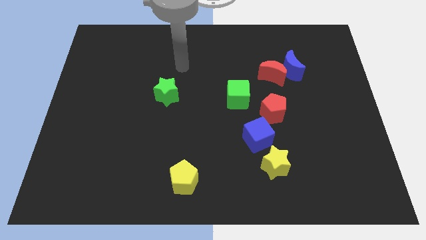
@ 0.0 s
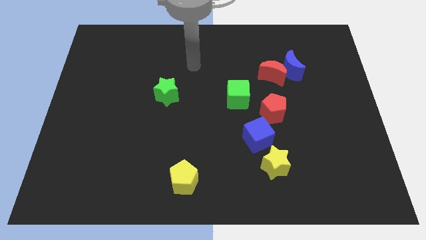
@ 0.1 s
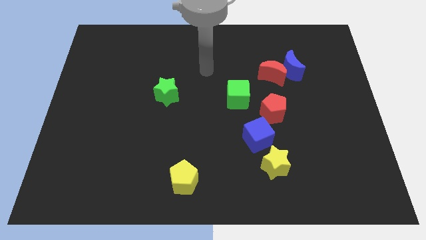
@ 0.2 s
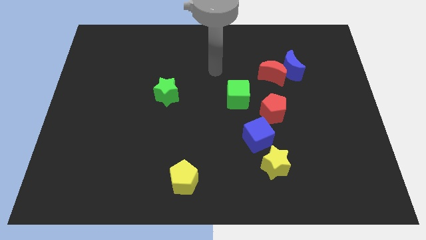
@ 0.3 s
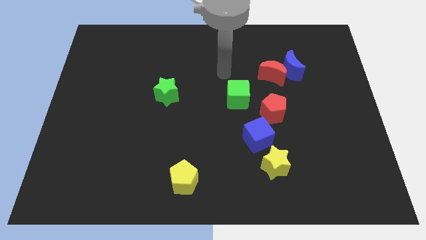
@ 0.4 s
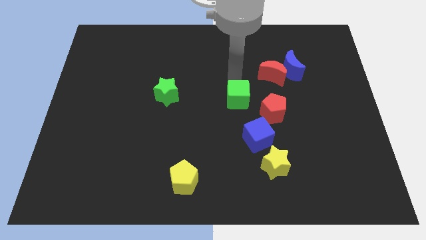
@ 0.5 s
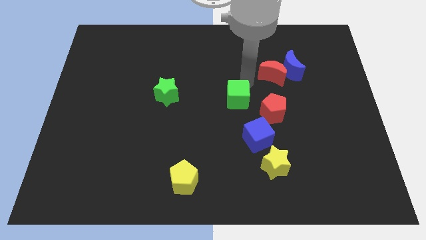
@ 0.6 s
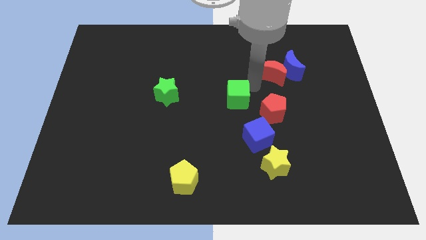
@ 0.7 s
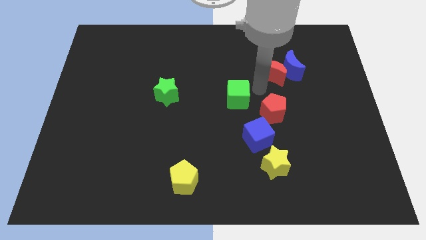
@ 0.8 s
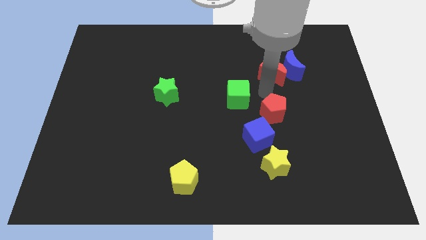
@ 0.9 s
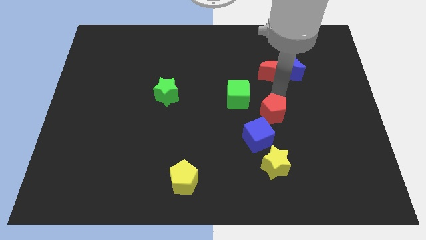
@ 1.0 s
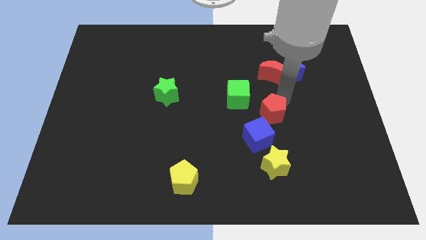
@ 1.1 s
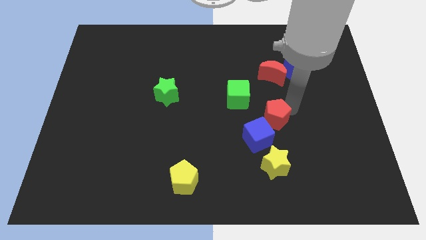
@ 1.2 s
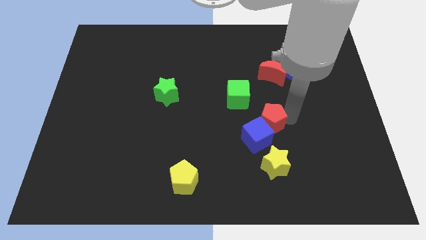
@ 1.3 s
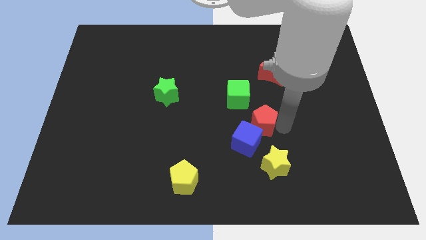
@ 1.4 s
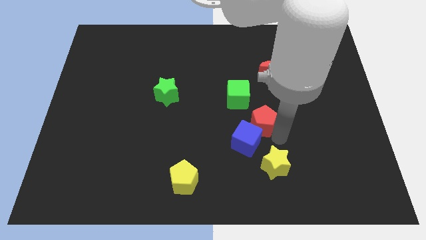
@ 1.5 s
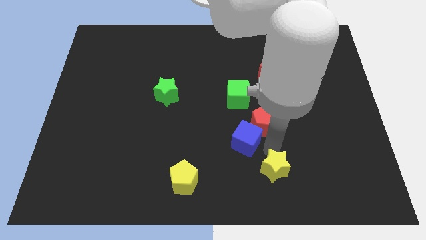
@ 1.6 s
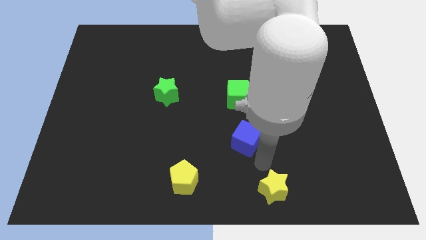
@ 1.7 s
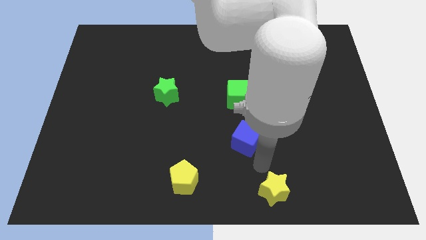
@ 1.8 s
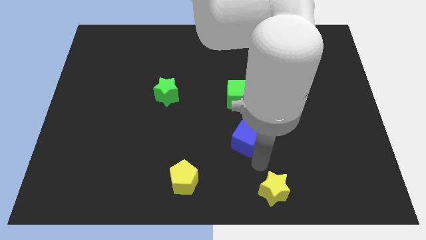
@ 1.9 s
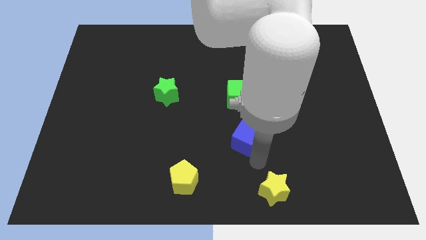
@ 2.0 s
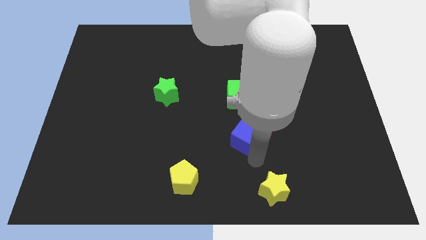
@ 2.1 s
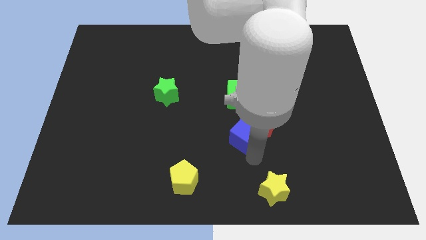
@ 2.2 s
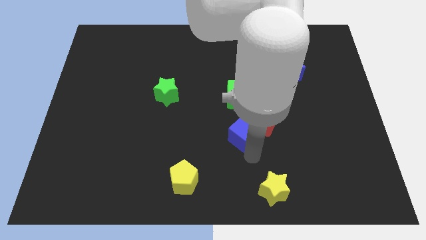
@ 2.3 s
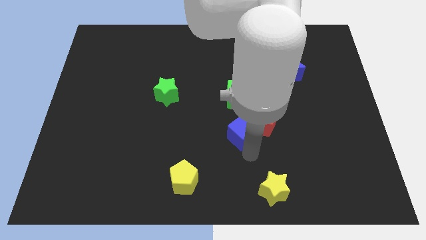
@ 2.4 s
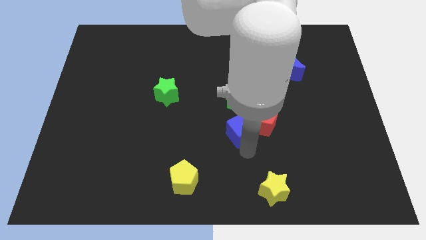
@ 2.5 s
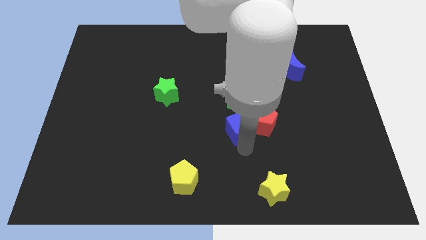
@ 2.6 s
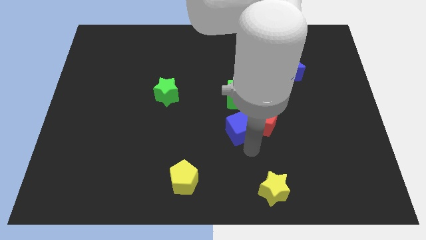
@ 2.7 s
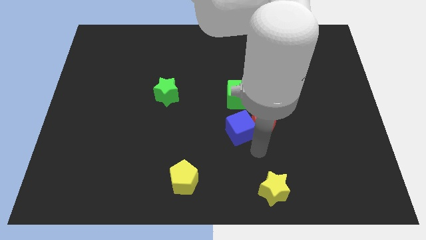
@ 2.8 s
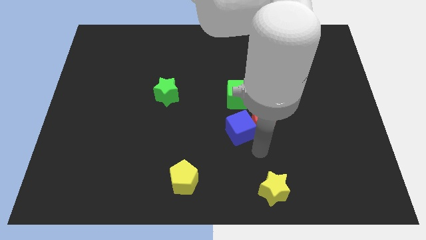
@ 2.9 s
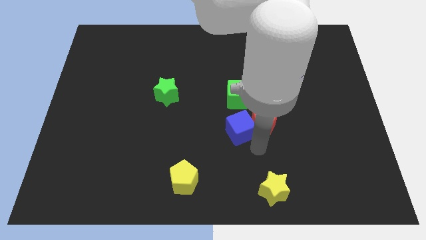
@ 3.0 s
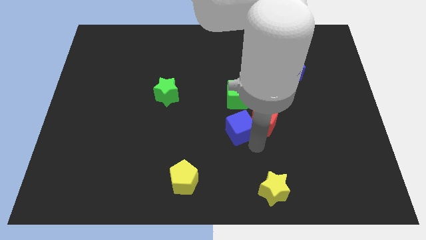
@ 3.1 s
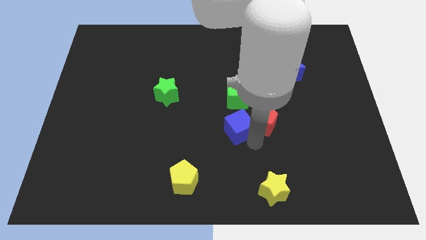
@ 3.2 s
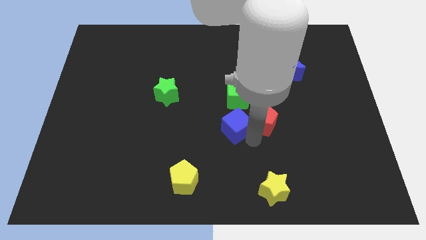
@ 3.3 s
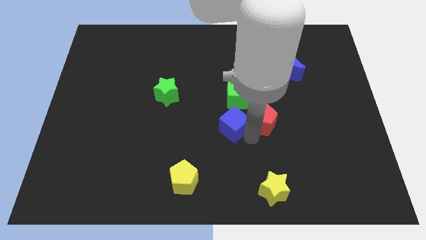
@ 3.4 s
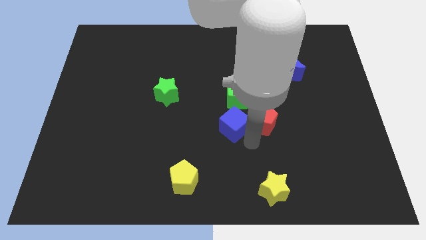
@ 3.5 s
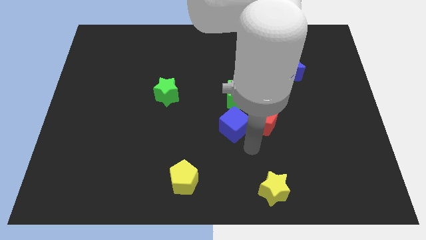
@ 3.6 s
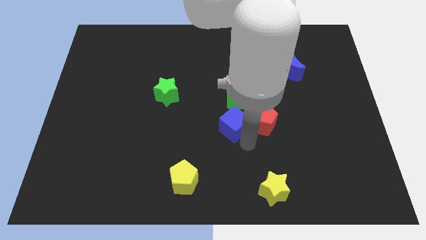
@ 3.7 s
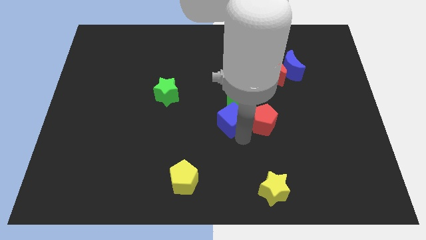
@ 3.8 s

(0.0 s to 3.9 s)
push the blue cube a bit upwards and to the left diagonally

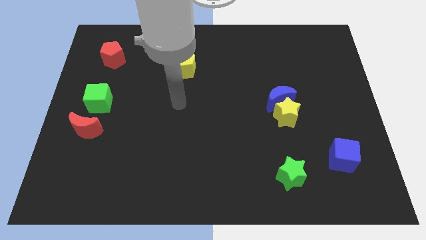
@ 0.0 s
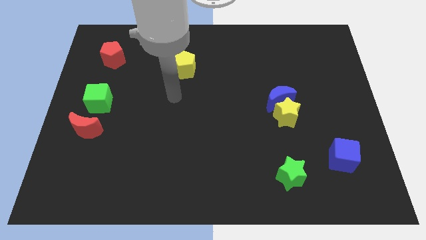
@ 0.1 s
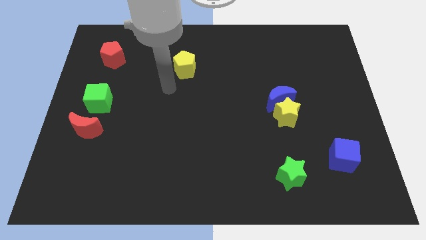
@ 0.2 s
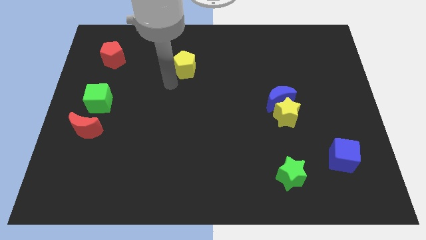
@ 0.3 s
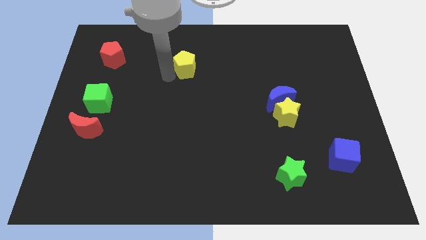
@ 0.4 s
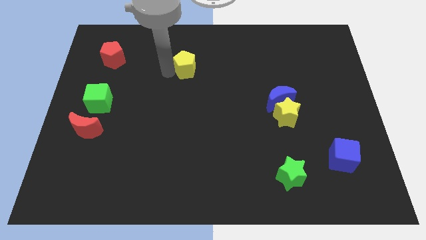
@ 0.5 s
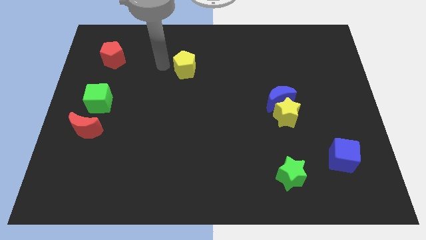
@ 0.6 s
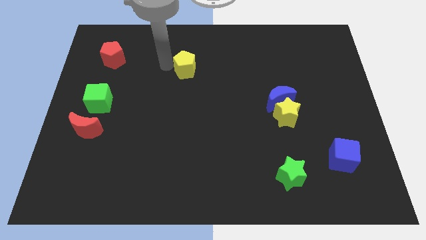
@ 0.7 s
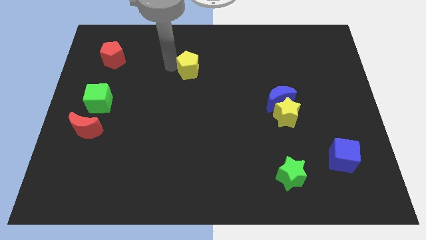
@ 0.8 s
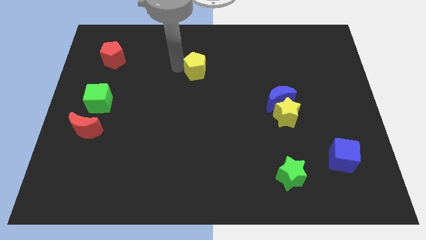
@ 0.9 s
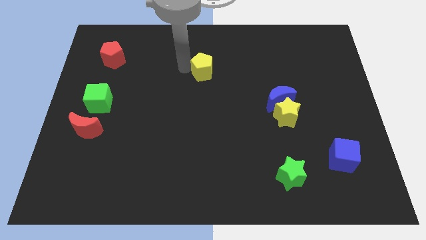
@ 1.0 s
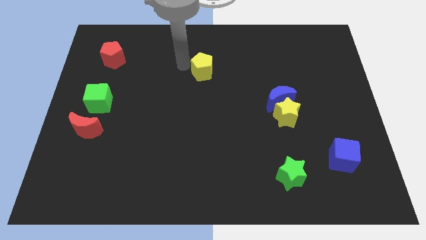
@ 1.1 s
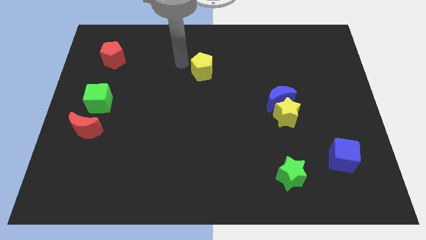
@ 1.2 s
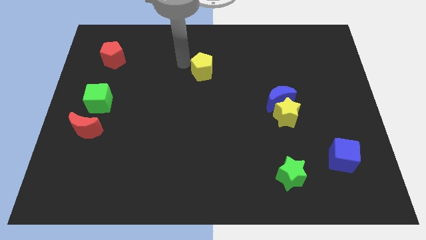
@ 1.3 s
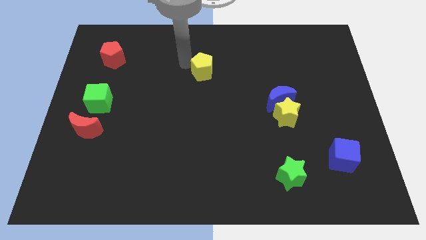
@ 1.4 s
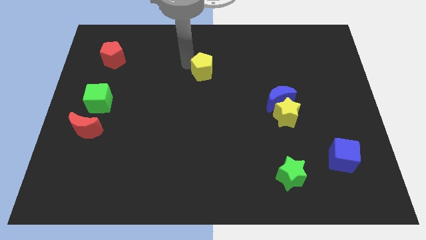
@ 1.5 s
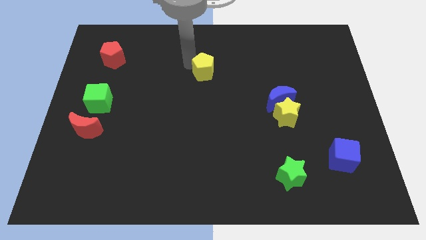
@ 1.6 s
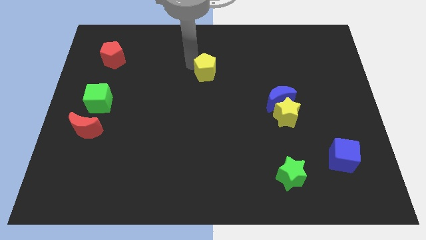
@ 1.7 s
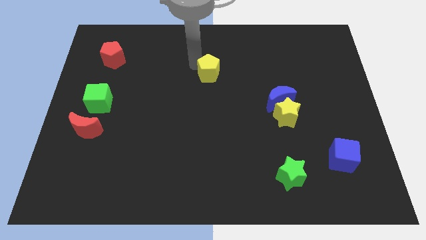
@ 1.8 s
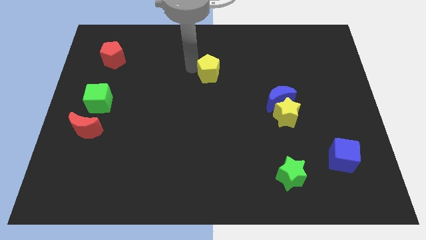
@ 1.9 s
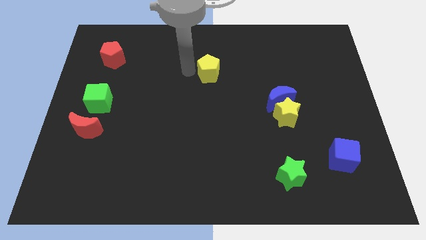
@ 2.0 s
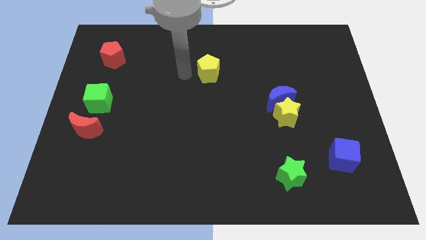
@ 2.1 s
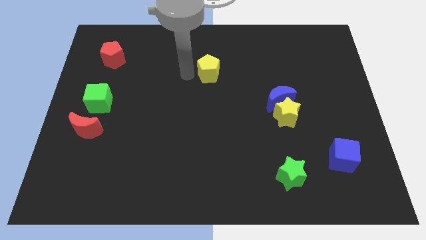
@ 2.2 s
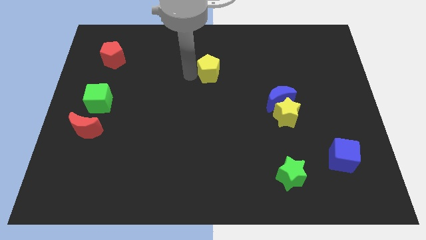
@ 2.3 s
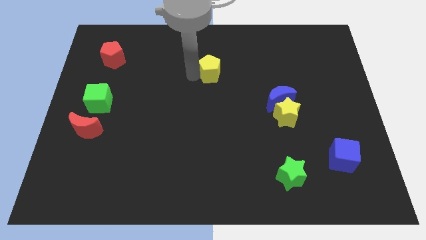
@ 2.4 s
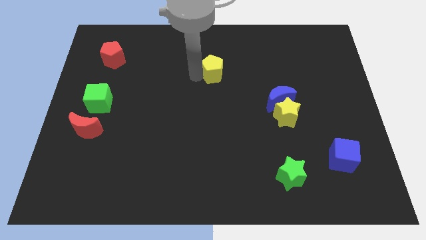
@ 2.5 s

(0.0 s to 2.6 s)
slightly move the yellow pentagon to the right

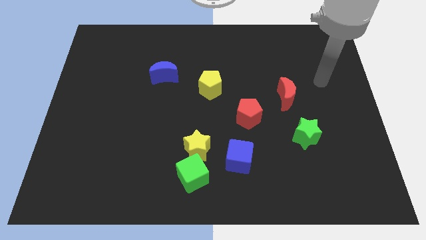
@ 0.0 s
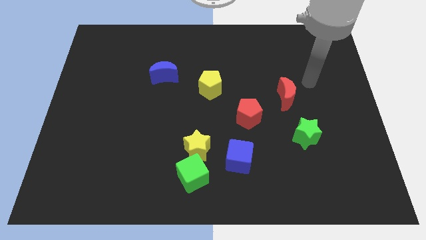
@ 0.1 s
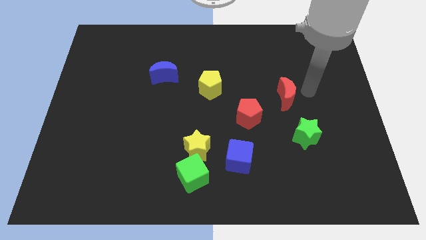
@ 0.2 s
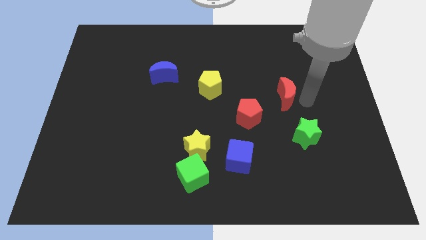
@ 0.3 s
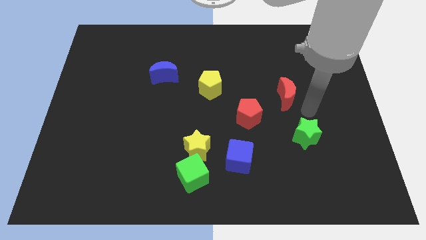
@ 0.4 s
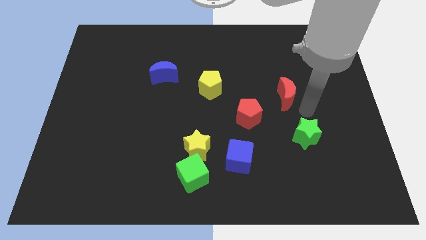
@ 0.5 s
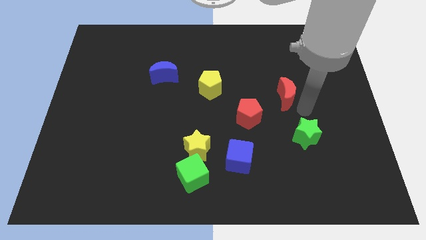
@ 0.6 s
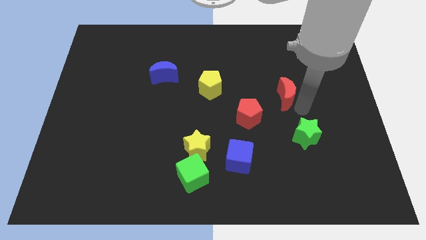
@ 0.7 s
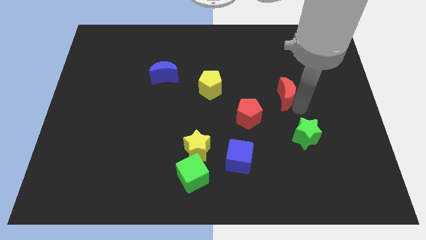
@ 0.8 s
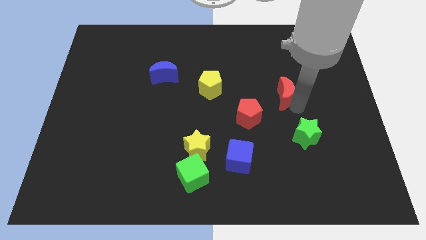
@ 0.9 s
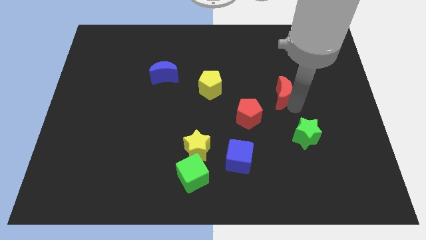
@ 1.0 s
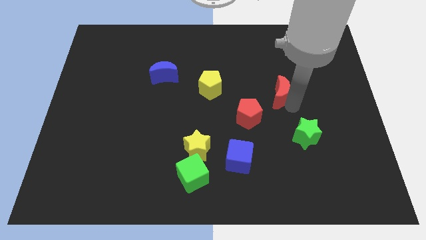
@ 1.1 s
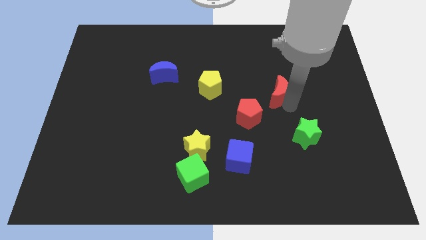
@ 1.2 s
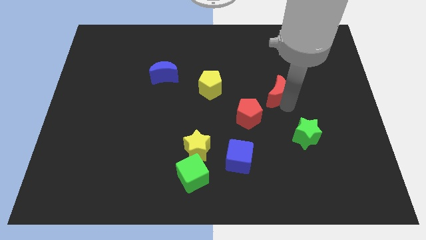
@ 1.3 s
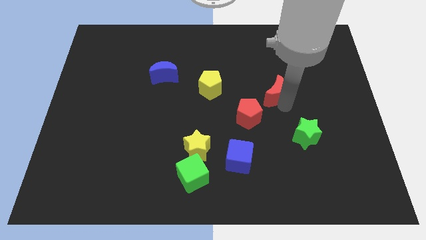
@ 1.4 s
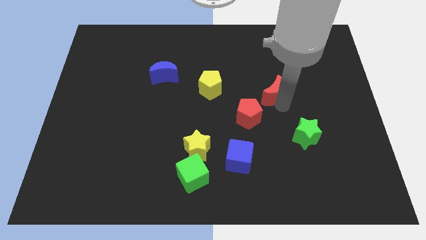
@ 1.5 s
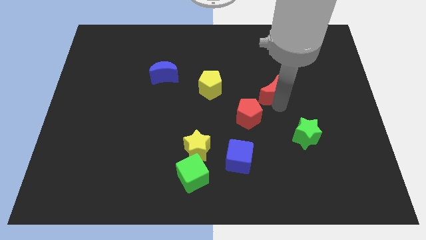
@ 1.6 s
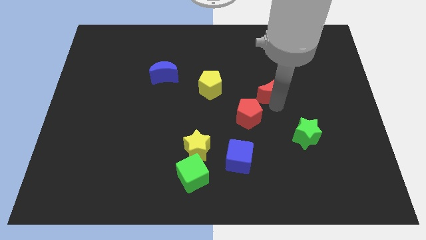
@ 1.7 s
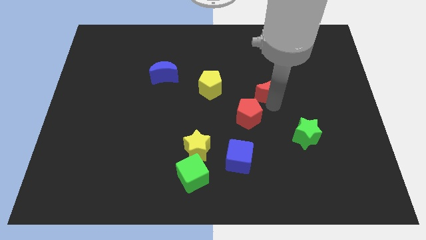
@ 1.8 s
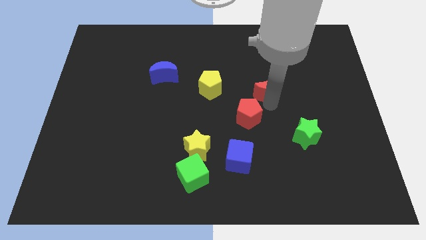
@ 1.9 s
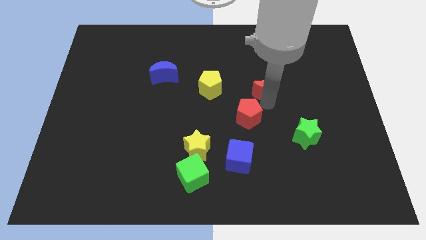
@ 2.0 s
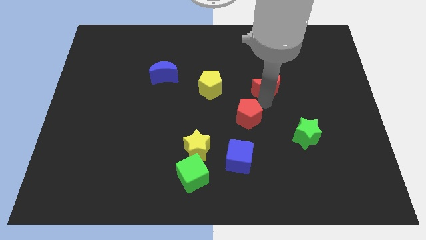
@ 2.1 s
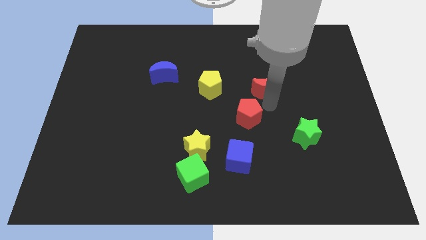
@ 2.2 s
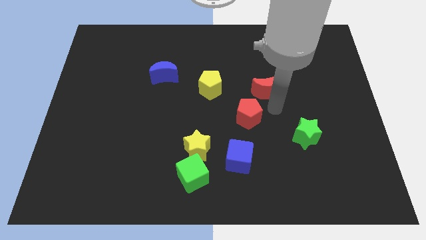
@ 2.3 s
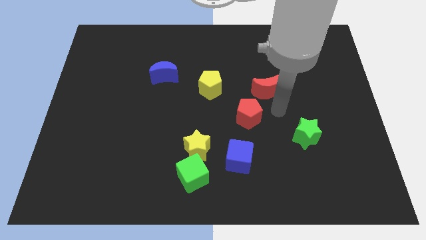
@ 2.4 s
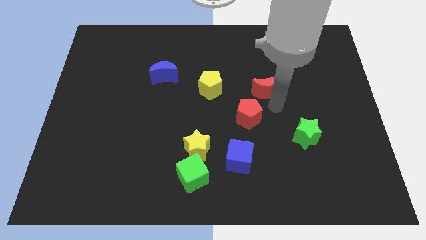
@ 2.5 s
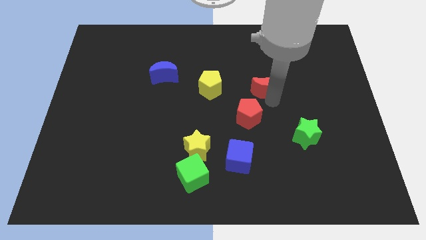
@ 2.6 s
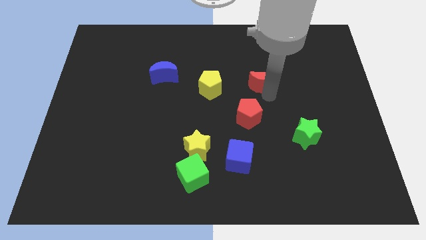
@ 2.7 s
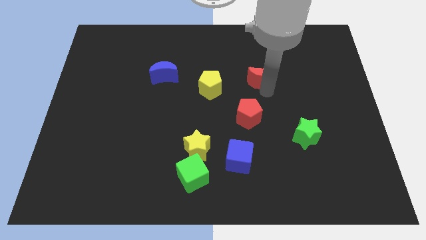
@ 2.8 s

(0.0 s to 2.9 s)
slide the red moon upwards and then left somewhat
